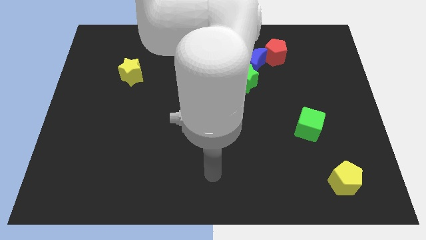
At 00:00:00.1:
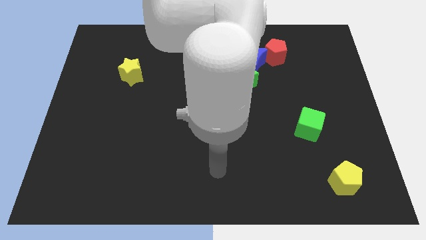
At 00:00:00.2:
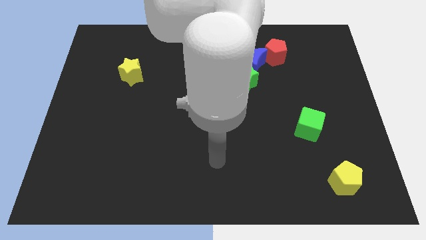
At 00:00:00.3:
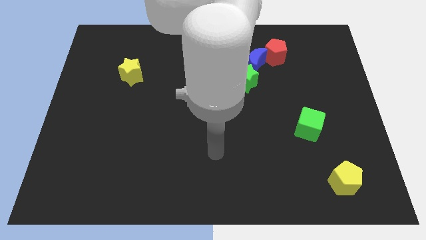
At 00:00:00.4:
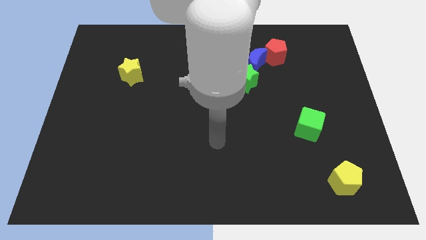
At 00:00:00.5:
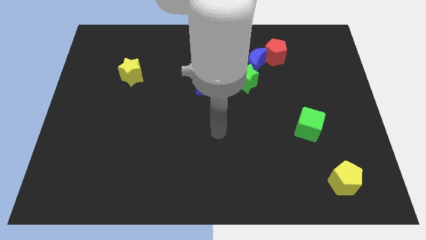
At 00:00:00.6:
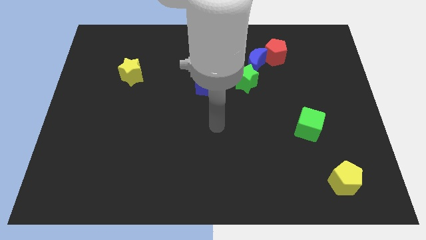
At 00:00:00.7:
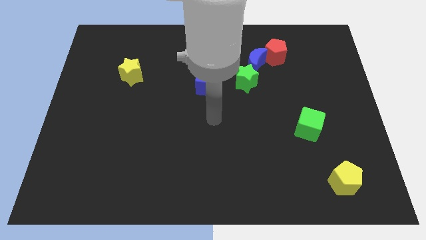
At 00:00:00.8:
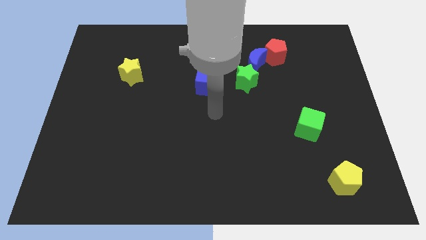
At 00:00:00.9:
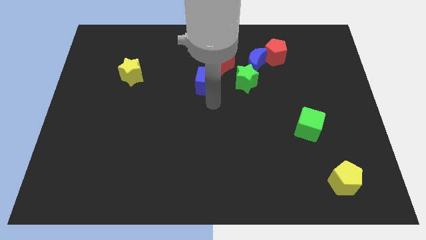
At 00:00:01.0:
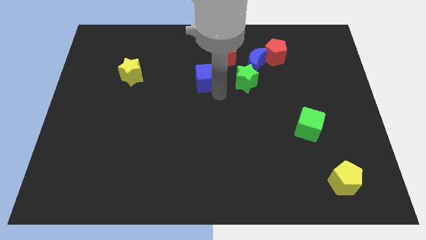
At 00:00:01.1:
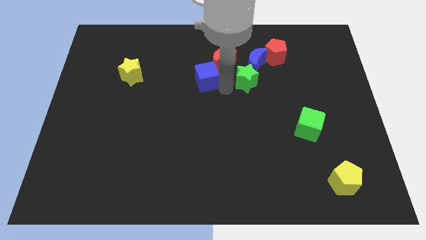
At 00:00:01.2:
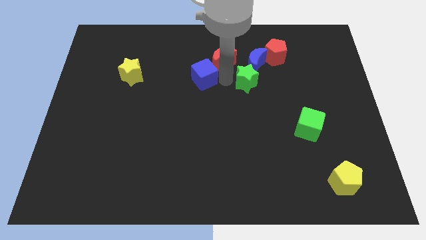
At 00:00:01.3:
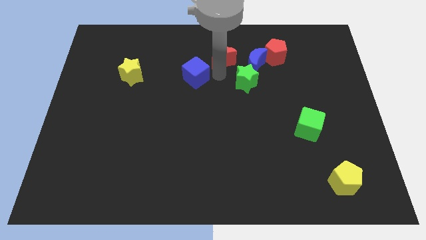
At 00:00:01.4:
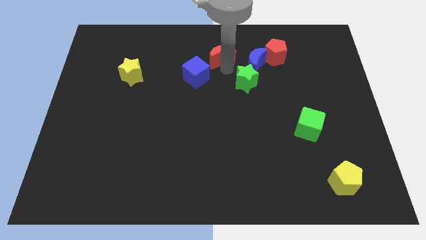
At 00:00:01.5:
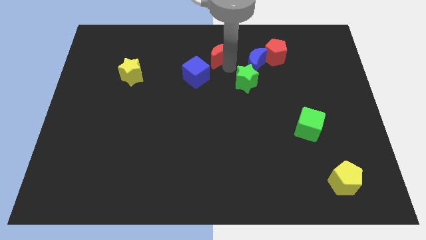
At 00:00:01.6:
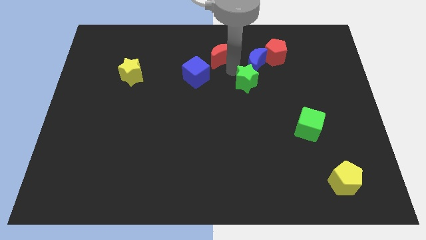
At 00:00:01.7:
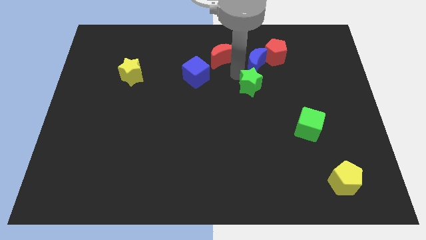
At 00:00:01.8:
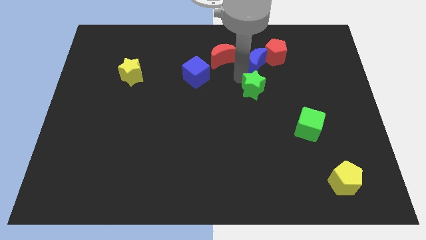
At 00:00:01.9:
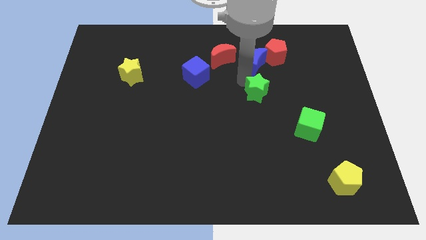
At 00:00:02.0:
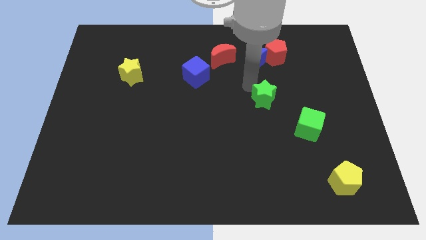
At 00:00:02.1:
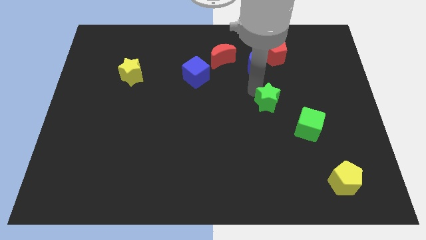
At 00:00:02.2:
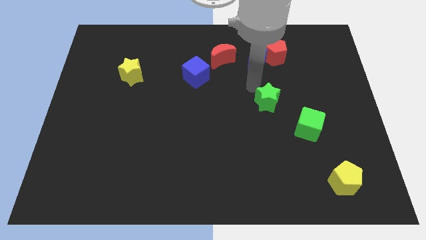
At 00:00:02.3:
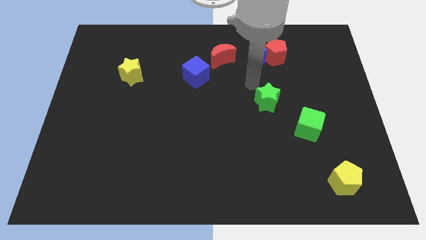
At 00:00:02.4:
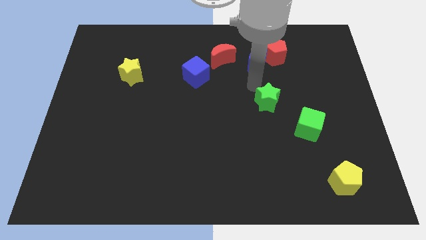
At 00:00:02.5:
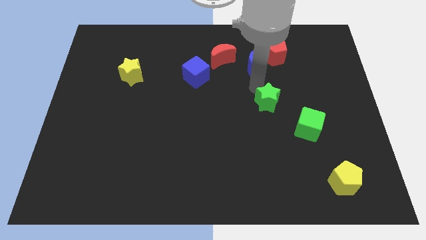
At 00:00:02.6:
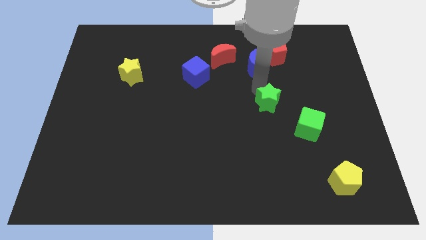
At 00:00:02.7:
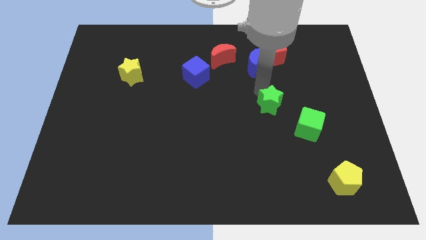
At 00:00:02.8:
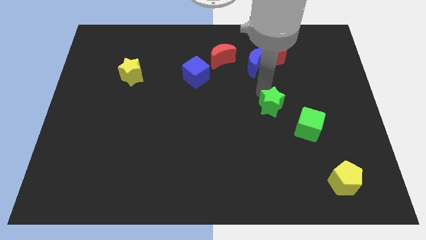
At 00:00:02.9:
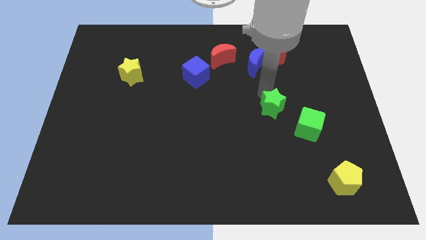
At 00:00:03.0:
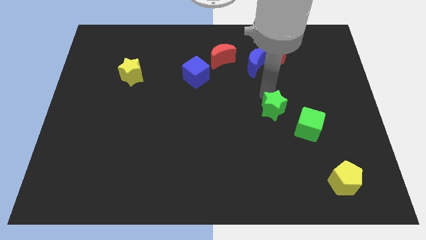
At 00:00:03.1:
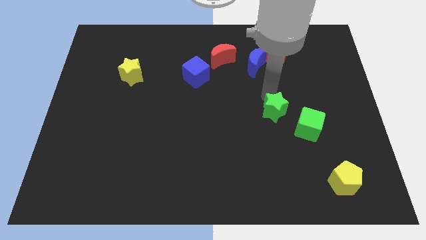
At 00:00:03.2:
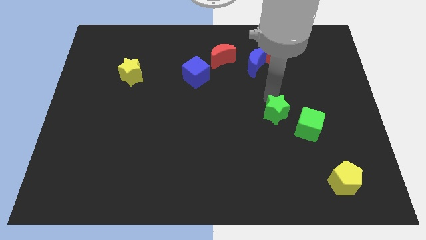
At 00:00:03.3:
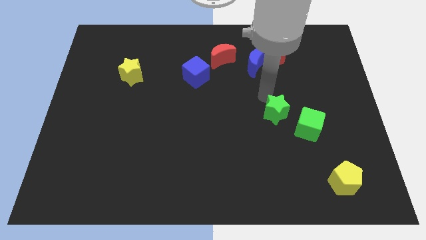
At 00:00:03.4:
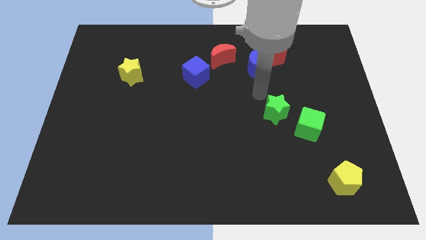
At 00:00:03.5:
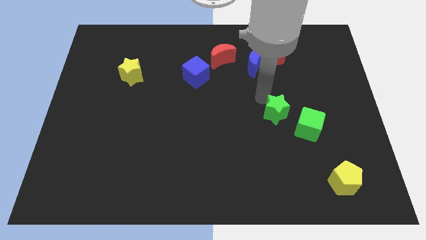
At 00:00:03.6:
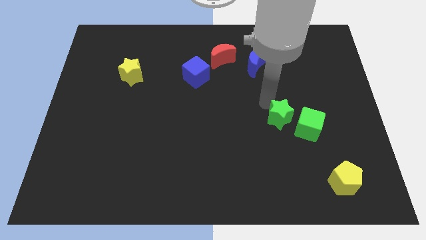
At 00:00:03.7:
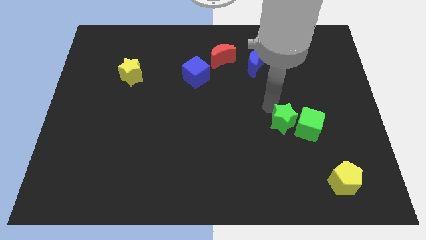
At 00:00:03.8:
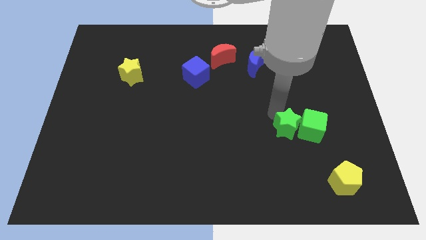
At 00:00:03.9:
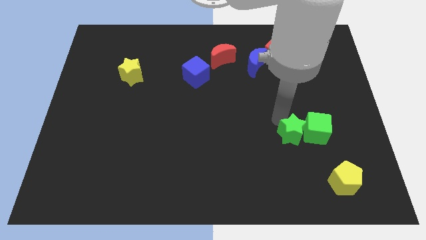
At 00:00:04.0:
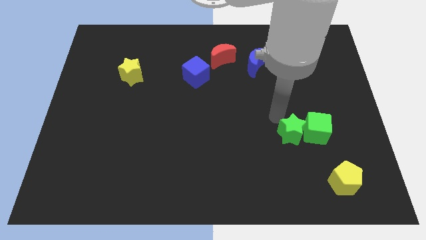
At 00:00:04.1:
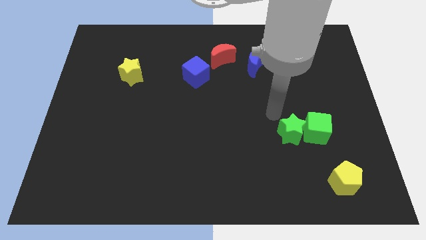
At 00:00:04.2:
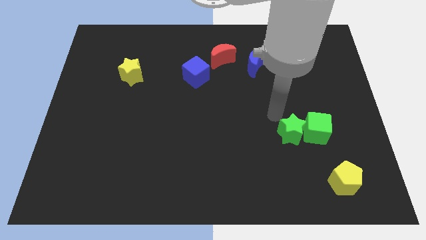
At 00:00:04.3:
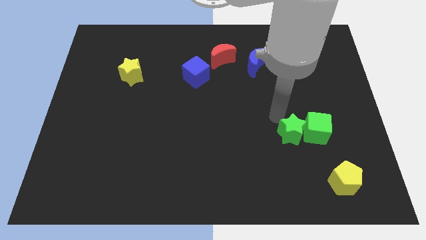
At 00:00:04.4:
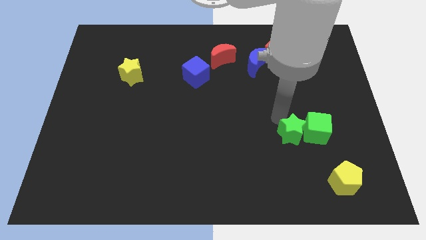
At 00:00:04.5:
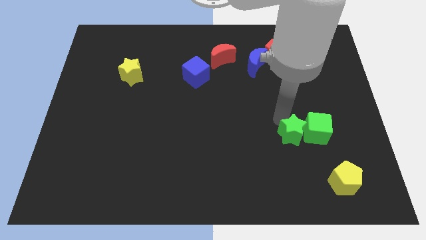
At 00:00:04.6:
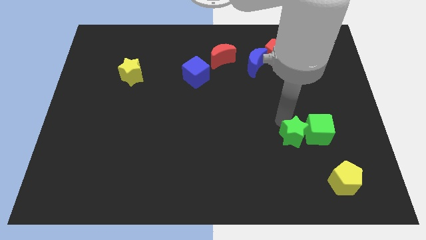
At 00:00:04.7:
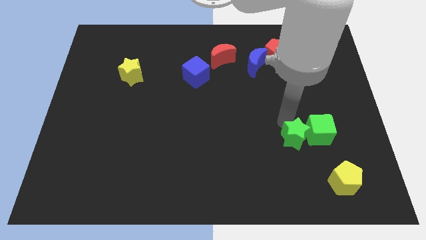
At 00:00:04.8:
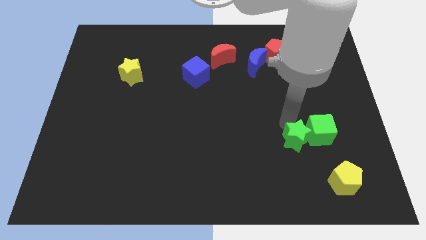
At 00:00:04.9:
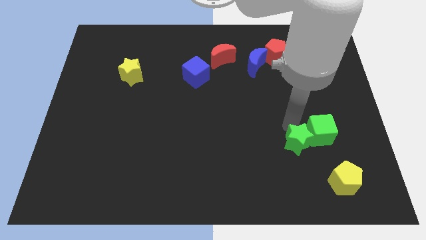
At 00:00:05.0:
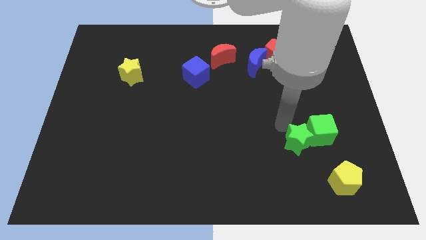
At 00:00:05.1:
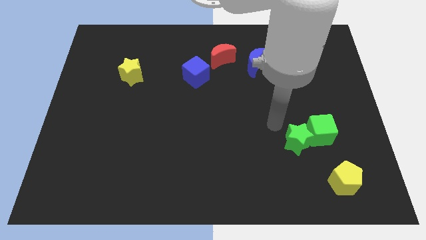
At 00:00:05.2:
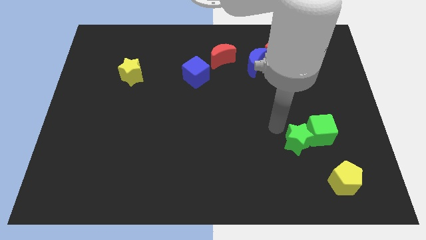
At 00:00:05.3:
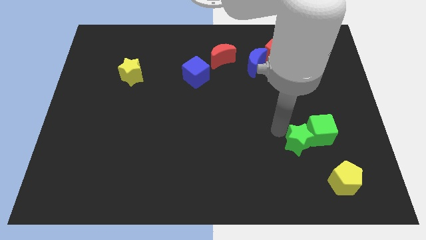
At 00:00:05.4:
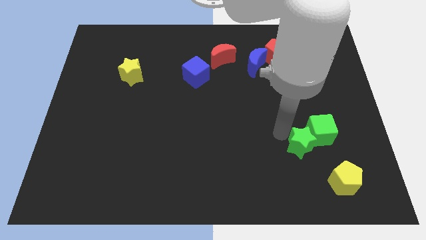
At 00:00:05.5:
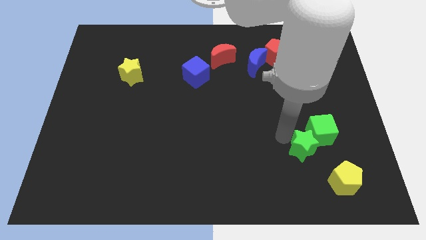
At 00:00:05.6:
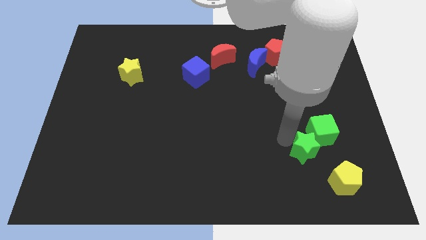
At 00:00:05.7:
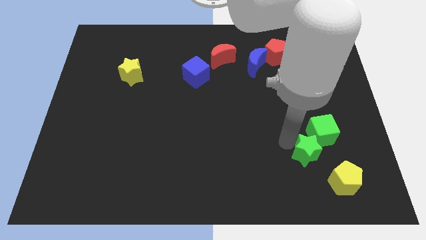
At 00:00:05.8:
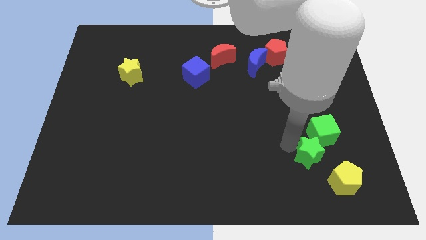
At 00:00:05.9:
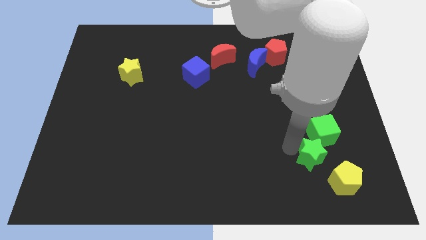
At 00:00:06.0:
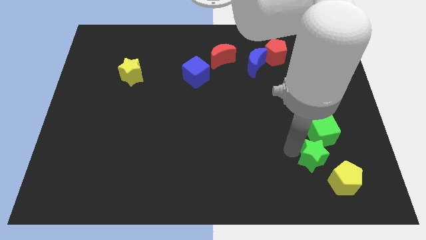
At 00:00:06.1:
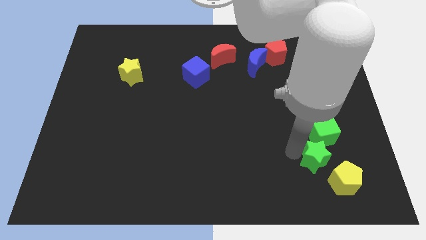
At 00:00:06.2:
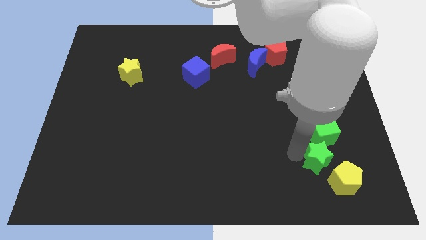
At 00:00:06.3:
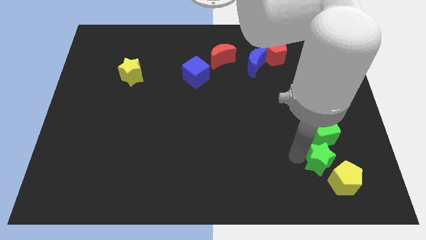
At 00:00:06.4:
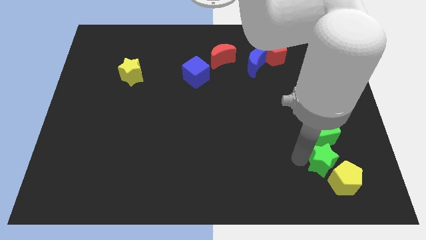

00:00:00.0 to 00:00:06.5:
move the green star next to the yellow pentagon

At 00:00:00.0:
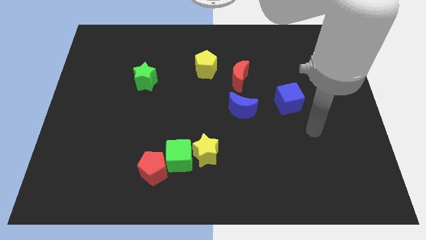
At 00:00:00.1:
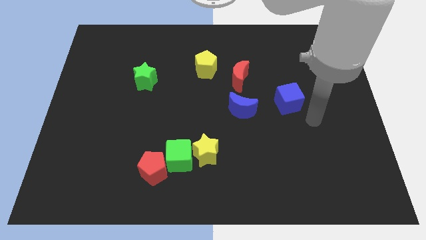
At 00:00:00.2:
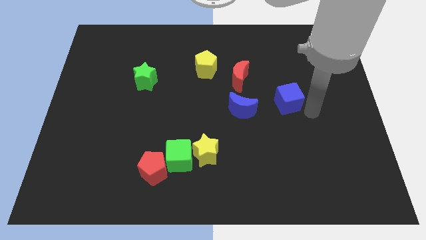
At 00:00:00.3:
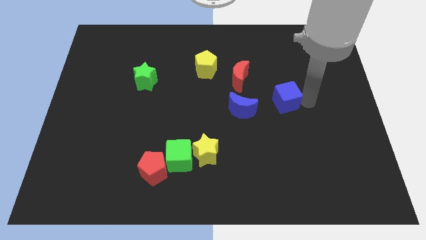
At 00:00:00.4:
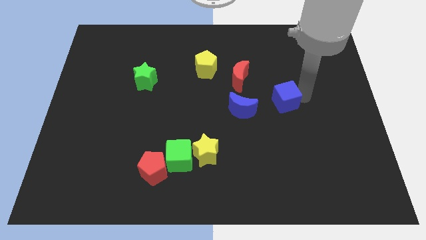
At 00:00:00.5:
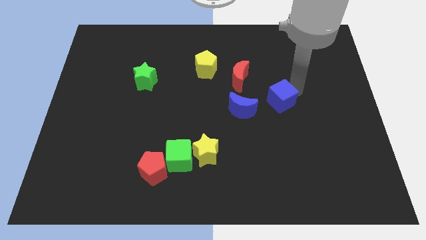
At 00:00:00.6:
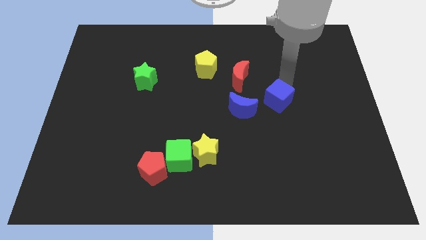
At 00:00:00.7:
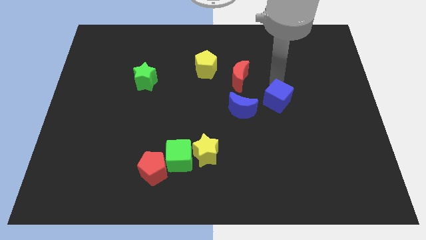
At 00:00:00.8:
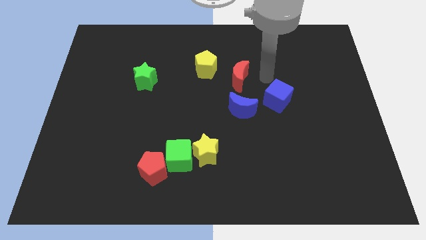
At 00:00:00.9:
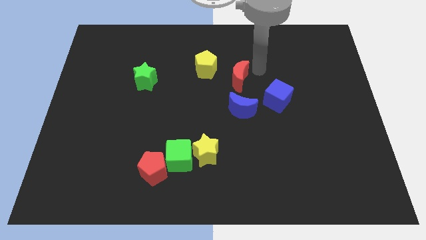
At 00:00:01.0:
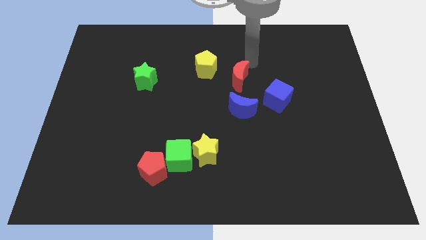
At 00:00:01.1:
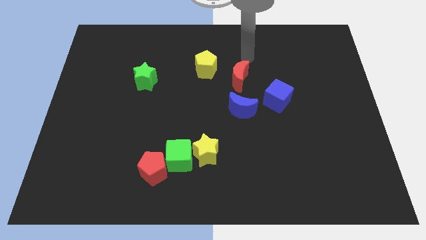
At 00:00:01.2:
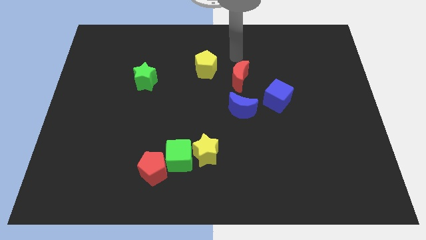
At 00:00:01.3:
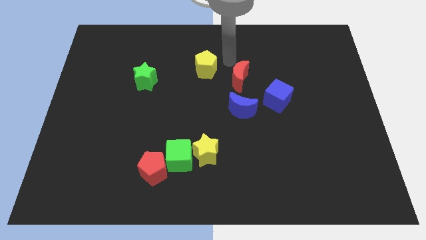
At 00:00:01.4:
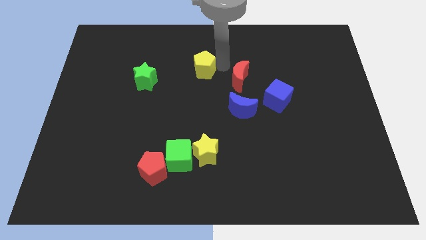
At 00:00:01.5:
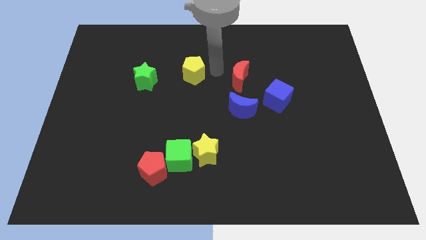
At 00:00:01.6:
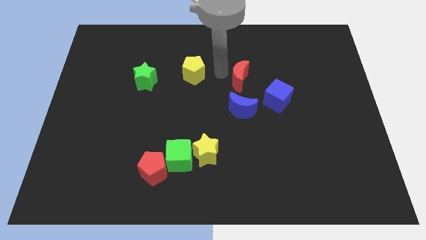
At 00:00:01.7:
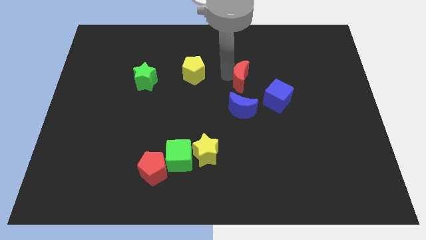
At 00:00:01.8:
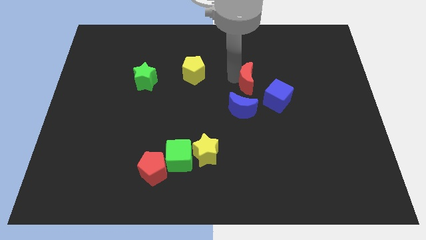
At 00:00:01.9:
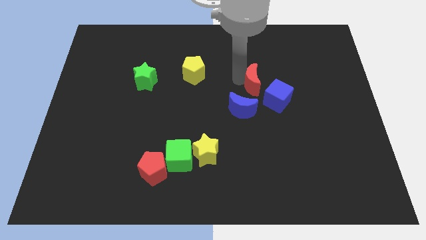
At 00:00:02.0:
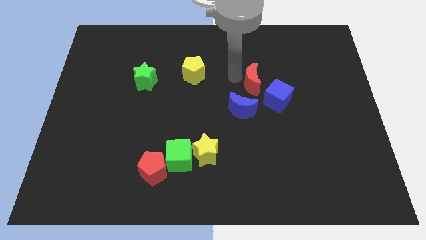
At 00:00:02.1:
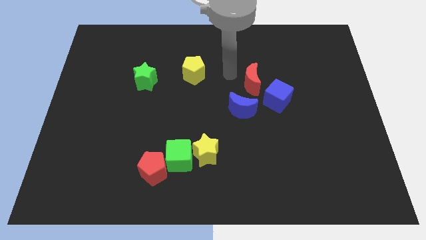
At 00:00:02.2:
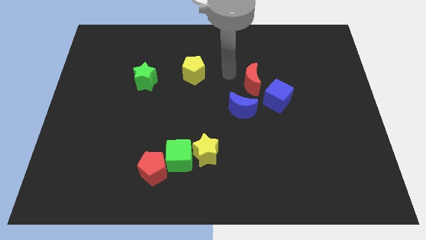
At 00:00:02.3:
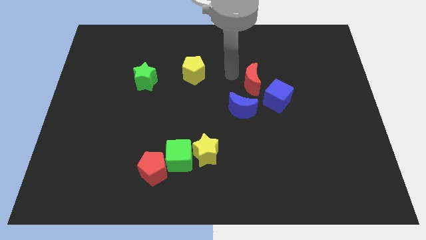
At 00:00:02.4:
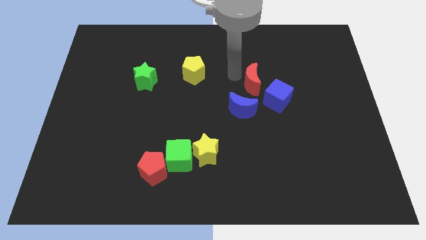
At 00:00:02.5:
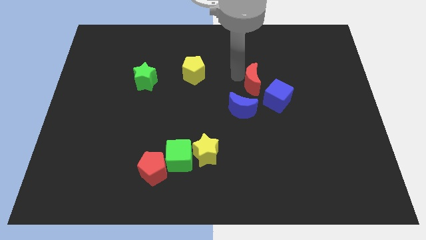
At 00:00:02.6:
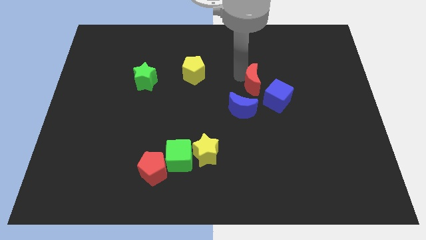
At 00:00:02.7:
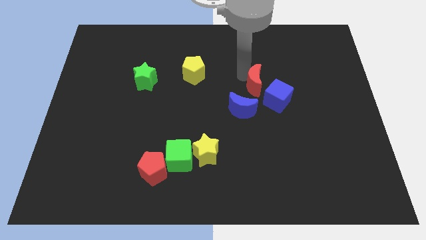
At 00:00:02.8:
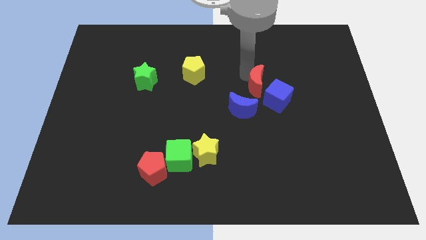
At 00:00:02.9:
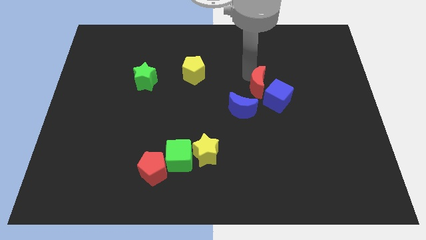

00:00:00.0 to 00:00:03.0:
push the red moon to the blue cube
